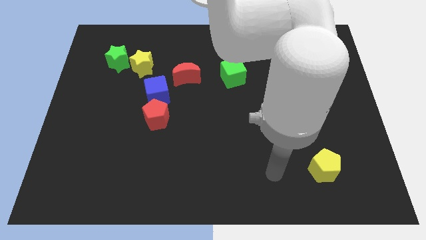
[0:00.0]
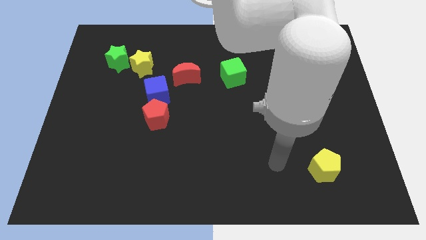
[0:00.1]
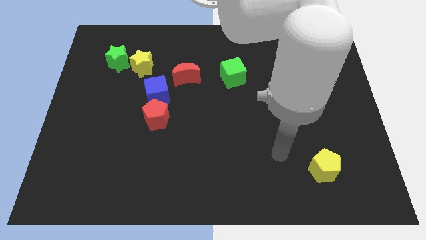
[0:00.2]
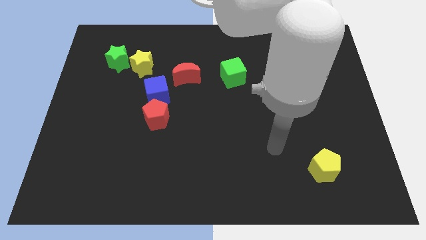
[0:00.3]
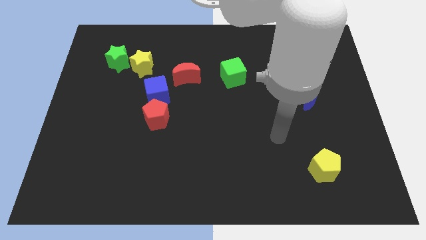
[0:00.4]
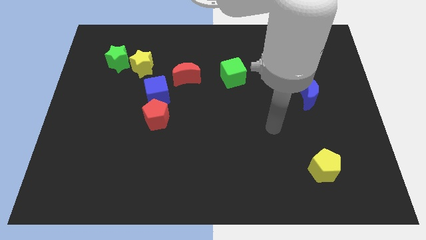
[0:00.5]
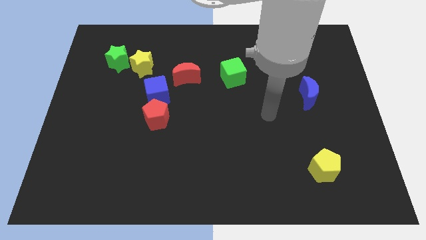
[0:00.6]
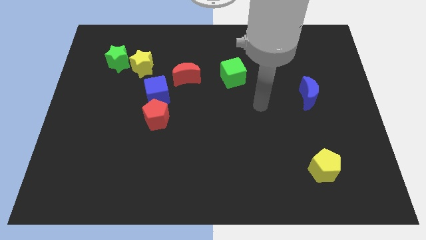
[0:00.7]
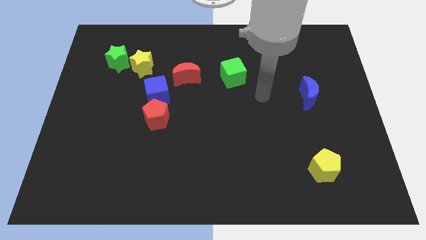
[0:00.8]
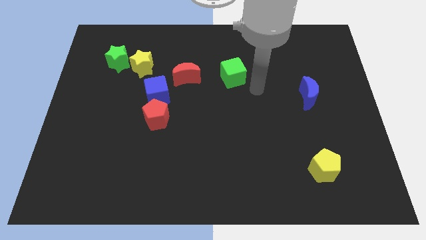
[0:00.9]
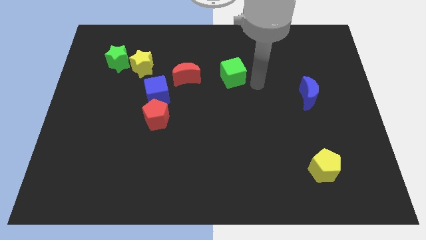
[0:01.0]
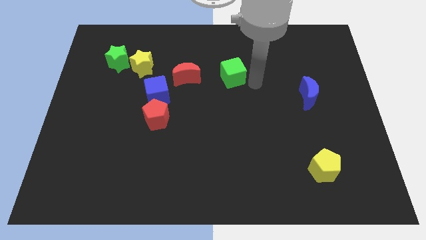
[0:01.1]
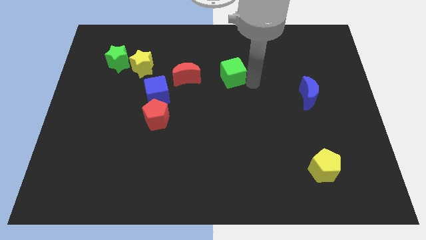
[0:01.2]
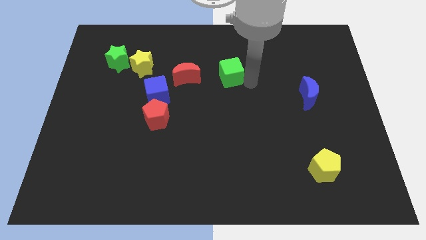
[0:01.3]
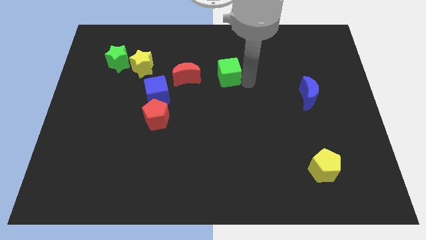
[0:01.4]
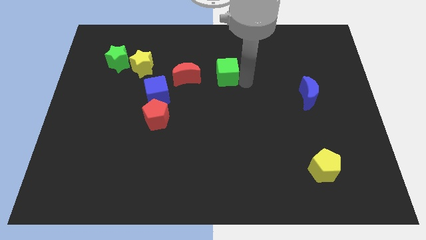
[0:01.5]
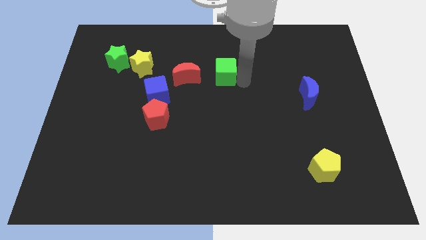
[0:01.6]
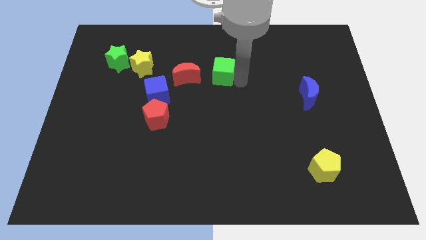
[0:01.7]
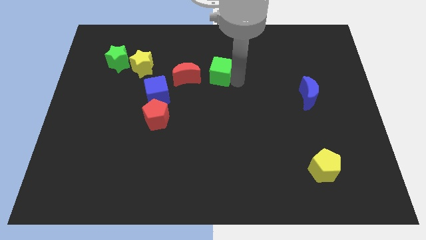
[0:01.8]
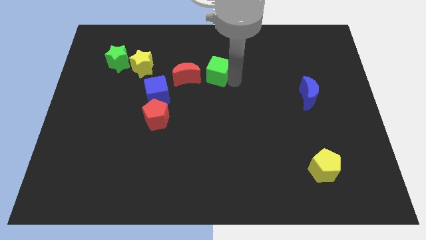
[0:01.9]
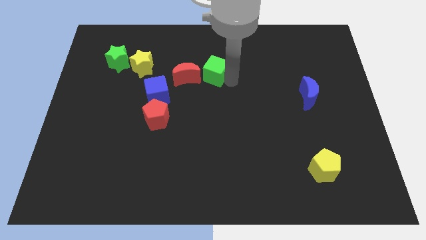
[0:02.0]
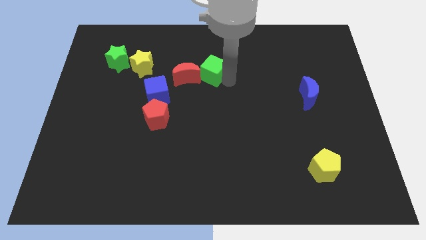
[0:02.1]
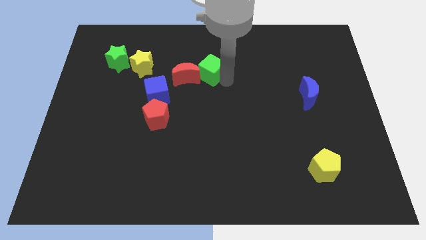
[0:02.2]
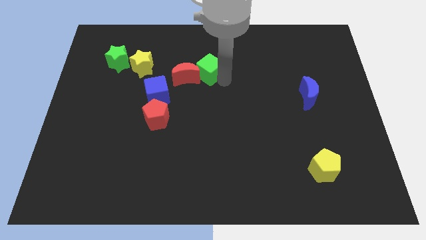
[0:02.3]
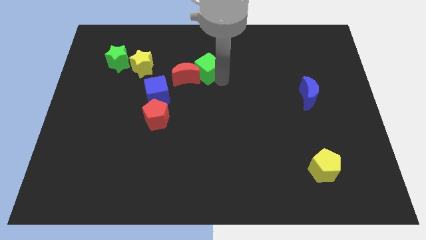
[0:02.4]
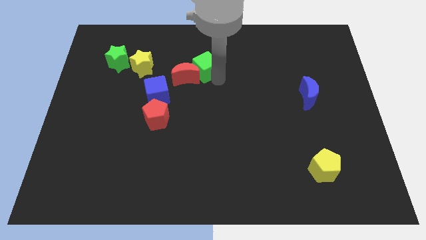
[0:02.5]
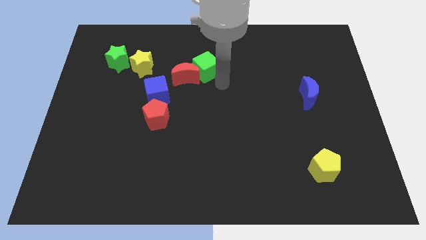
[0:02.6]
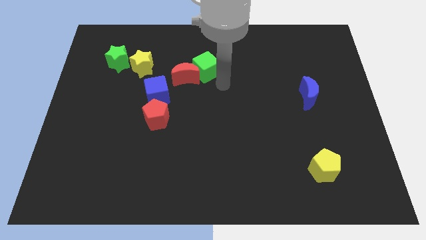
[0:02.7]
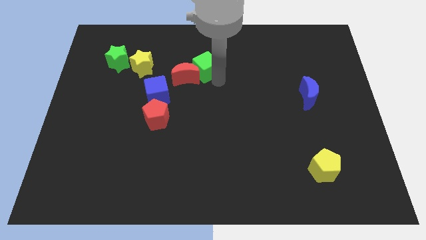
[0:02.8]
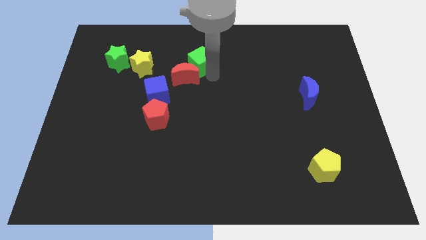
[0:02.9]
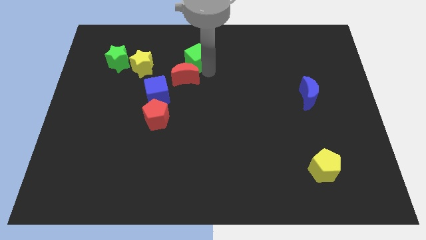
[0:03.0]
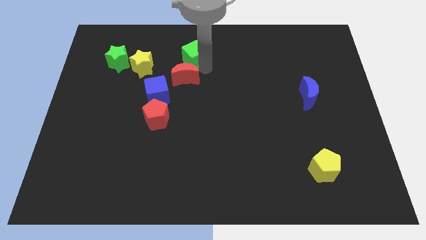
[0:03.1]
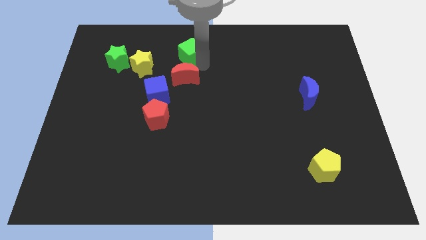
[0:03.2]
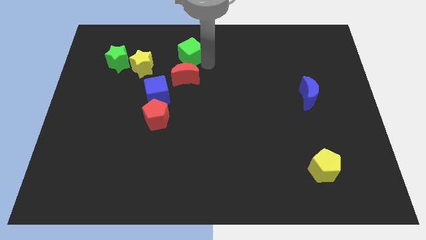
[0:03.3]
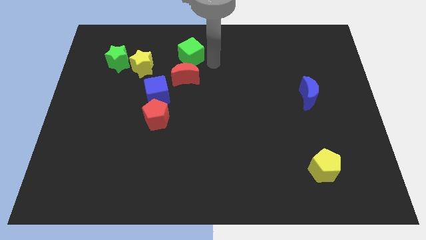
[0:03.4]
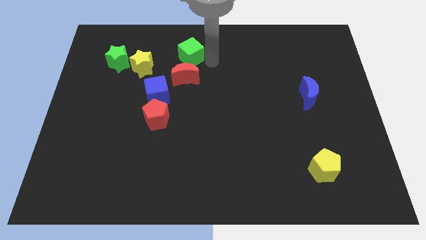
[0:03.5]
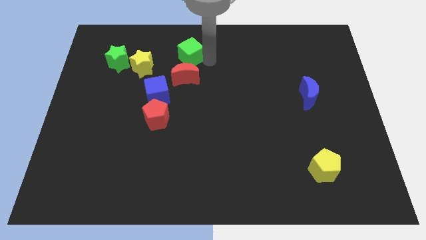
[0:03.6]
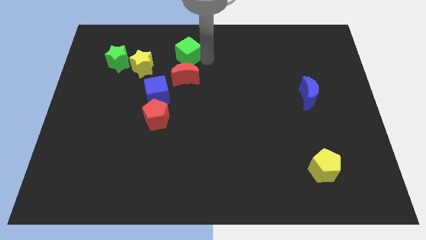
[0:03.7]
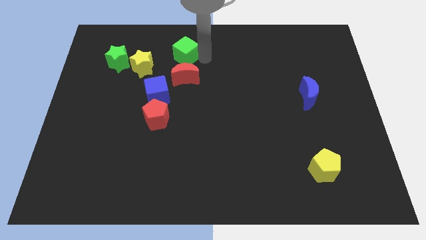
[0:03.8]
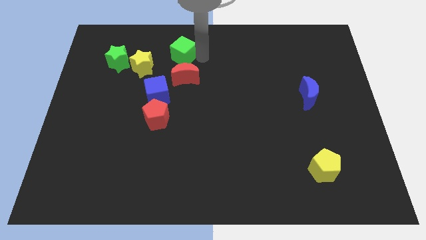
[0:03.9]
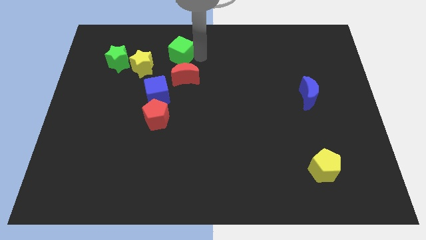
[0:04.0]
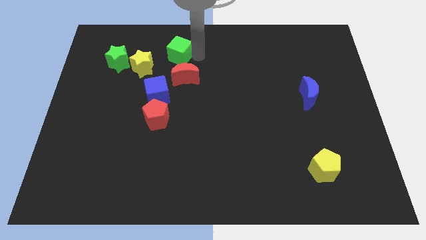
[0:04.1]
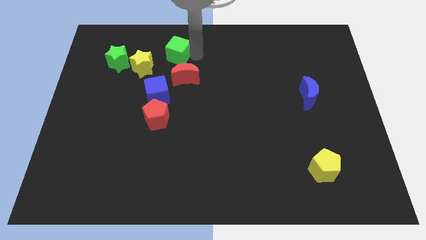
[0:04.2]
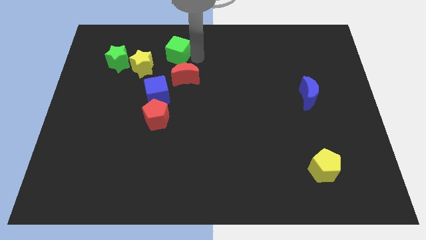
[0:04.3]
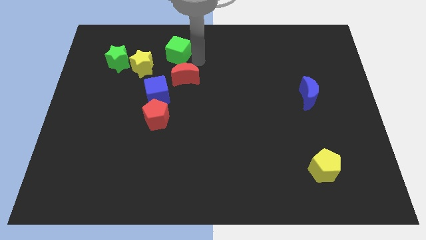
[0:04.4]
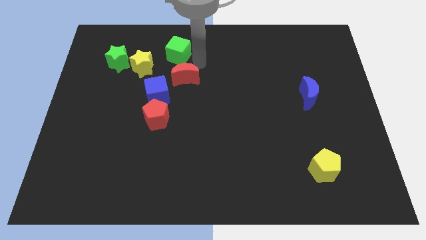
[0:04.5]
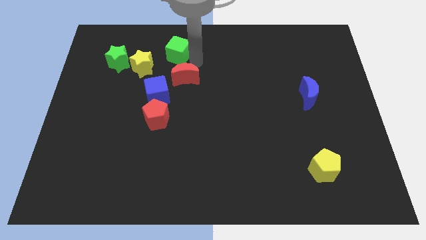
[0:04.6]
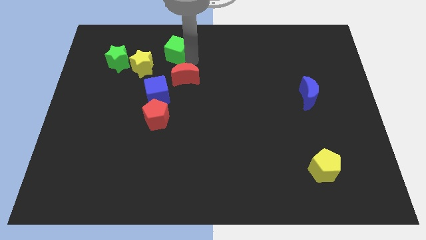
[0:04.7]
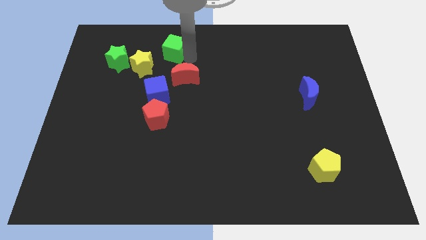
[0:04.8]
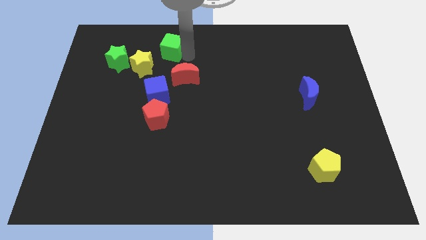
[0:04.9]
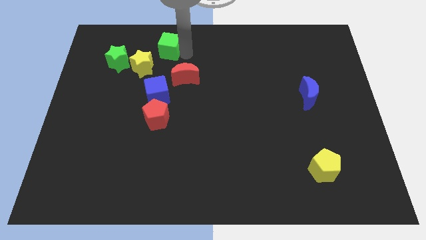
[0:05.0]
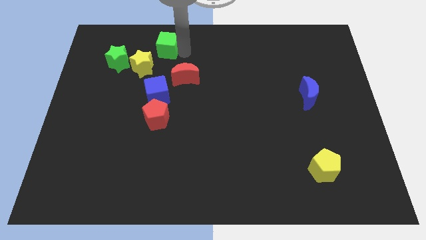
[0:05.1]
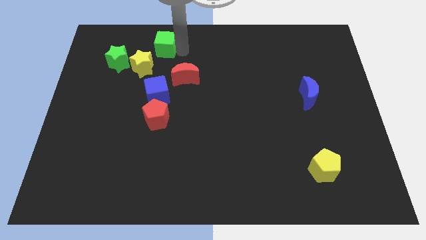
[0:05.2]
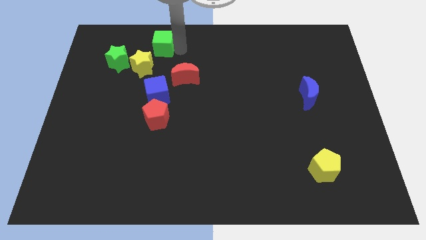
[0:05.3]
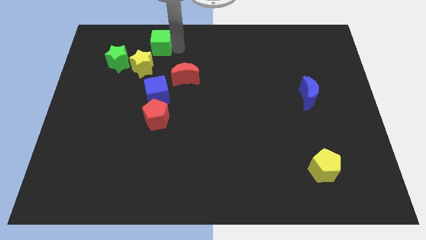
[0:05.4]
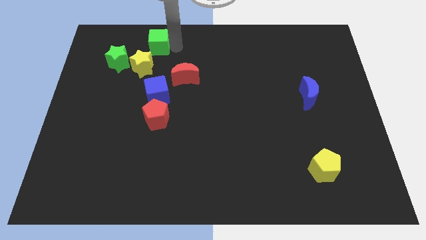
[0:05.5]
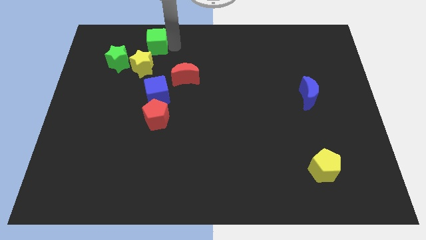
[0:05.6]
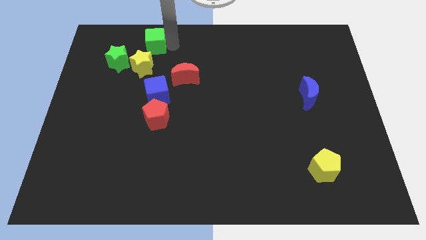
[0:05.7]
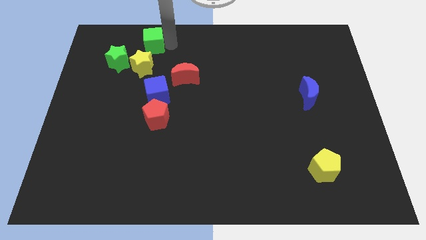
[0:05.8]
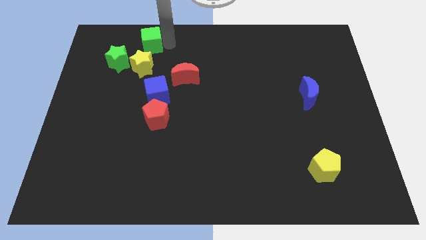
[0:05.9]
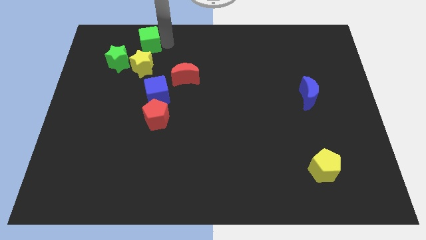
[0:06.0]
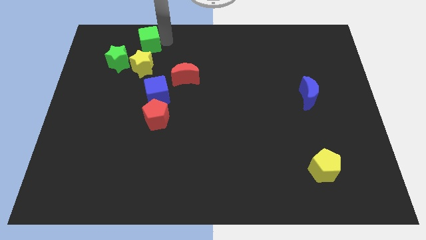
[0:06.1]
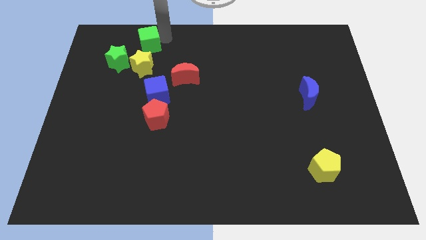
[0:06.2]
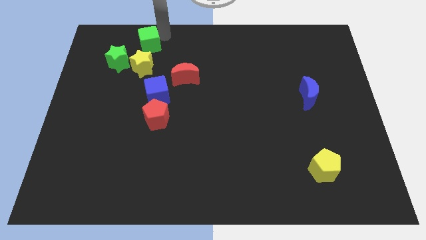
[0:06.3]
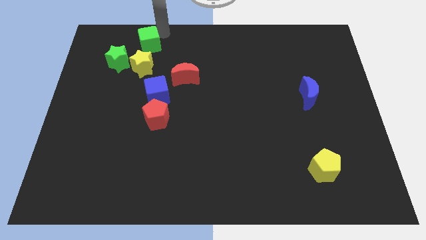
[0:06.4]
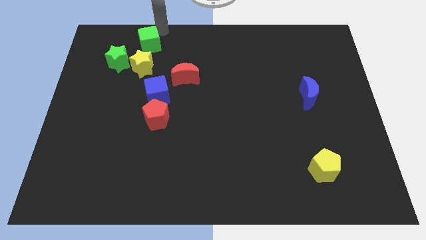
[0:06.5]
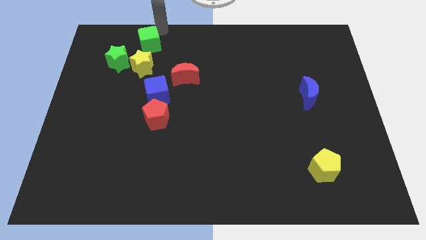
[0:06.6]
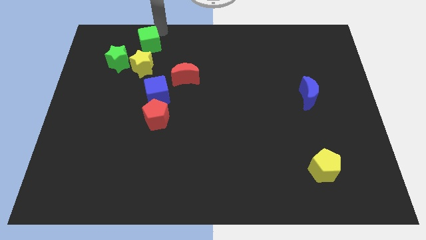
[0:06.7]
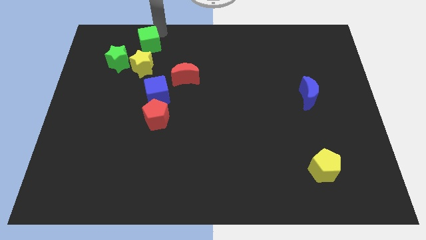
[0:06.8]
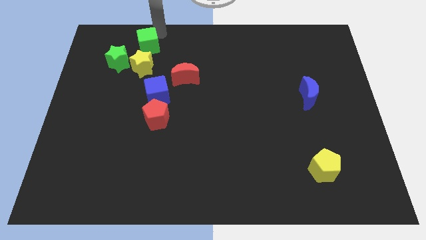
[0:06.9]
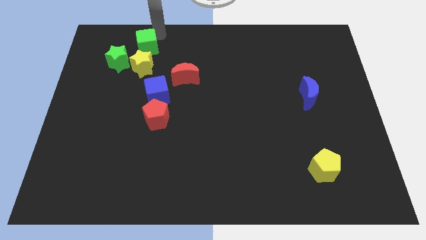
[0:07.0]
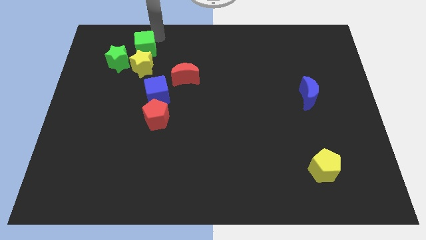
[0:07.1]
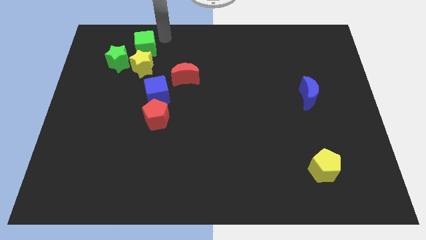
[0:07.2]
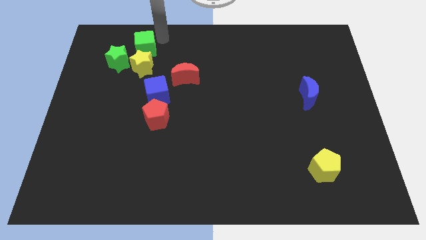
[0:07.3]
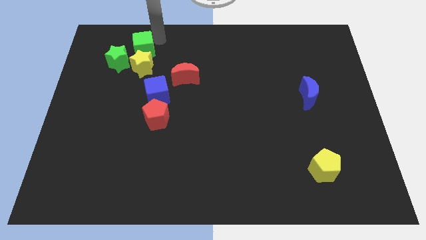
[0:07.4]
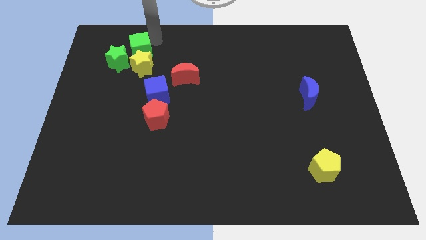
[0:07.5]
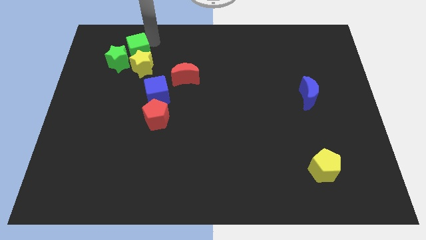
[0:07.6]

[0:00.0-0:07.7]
move the green cube to the green star
